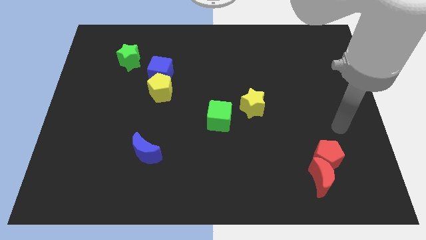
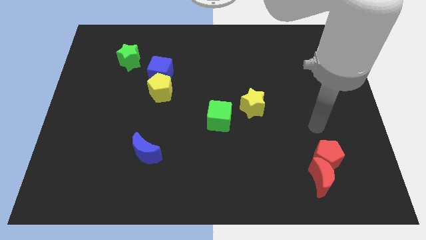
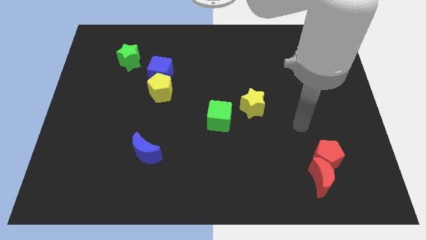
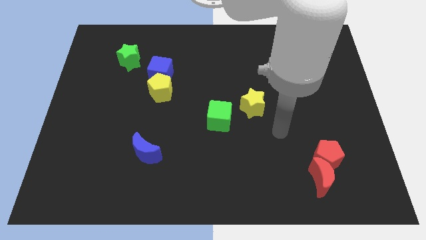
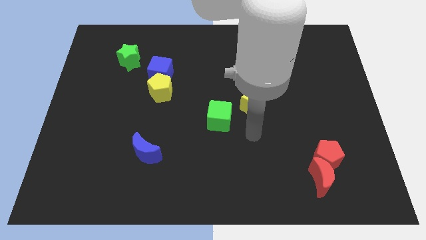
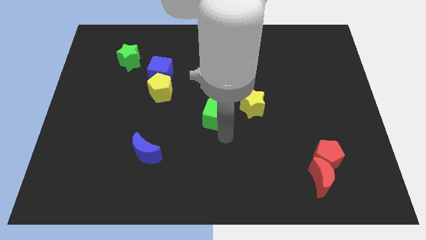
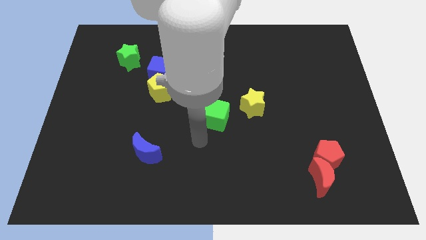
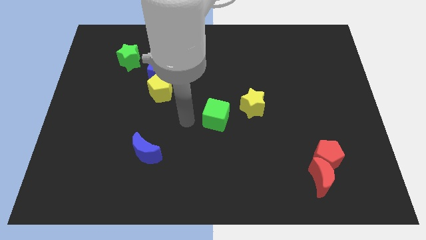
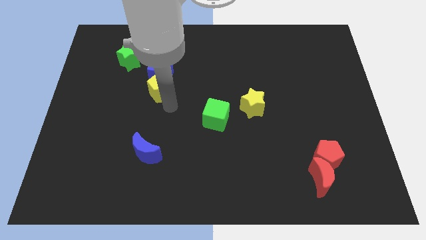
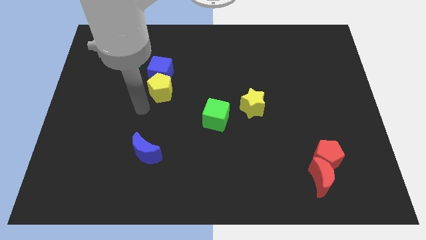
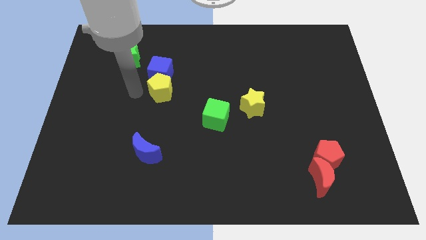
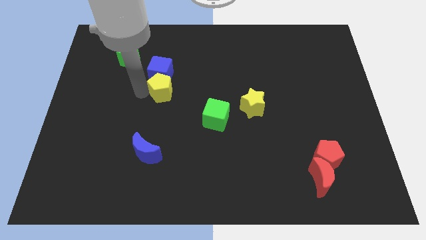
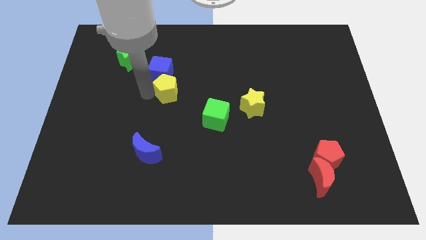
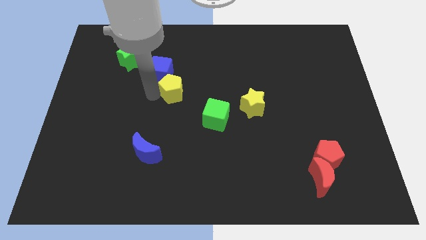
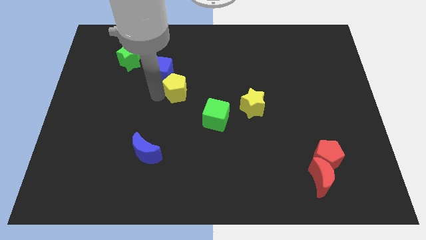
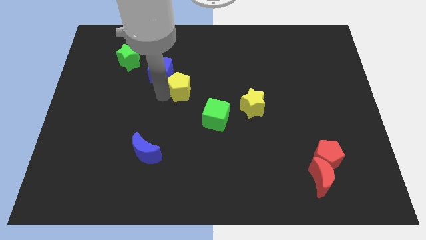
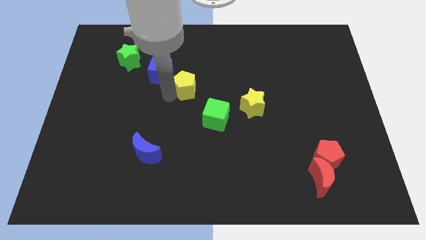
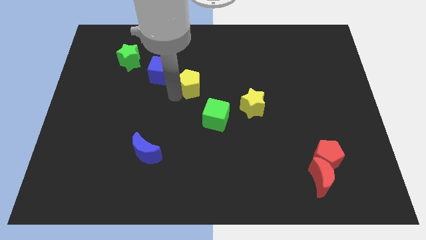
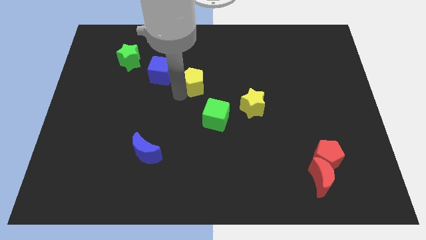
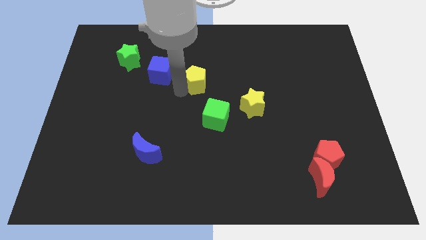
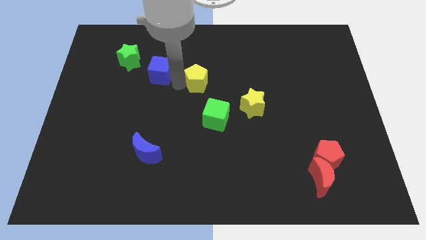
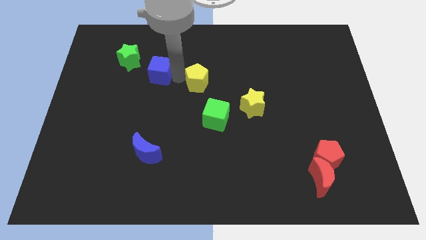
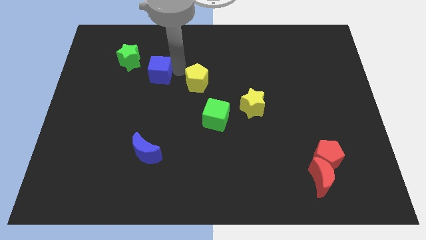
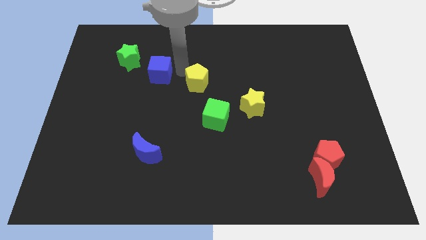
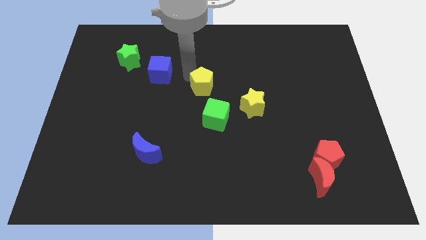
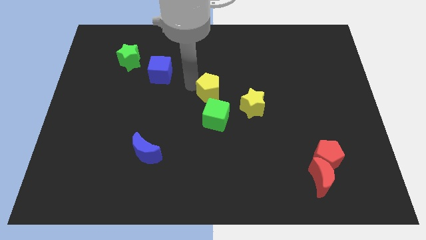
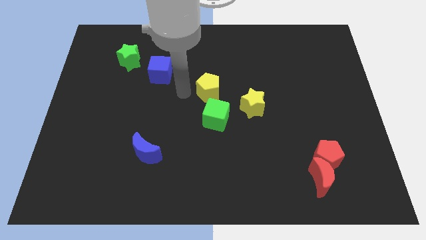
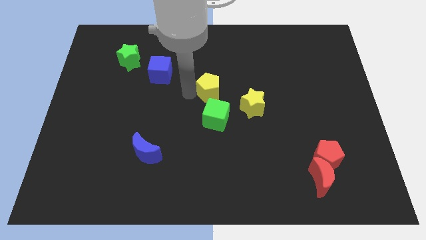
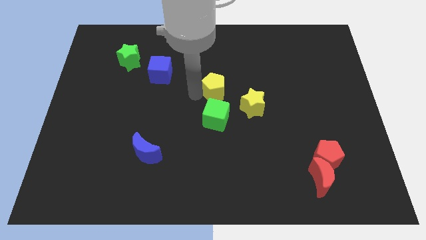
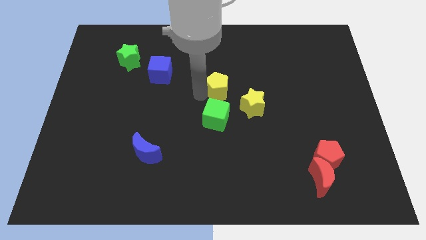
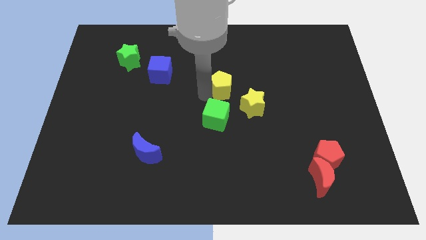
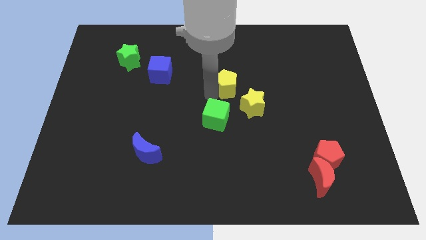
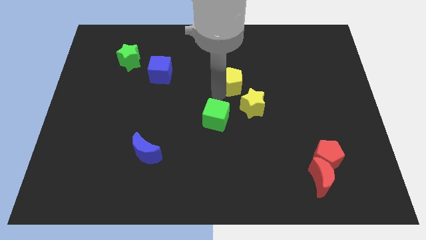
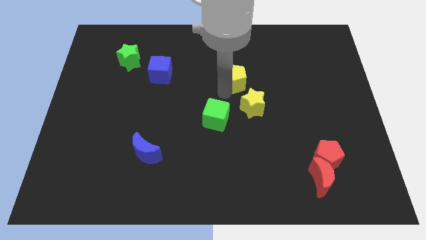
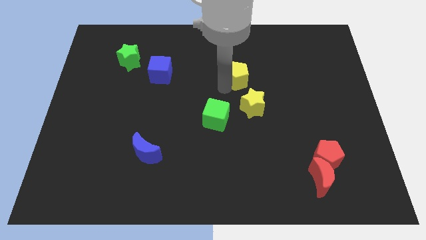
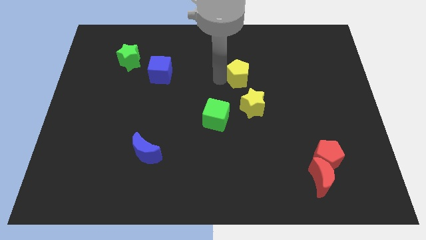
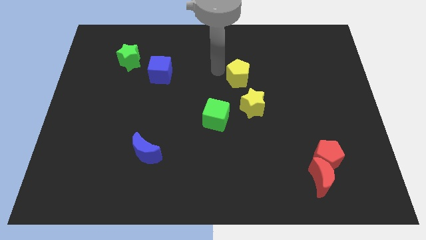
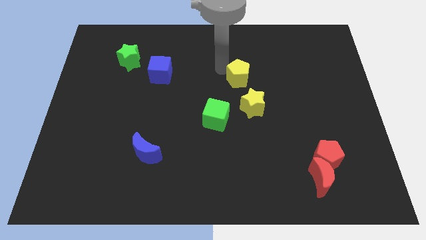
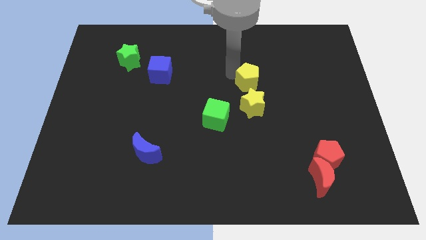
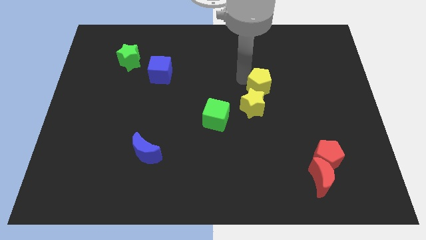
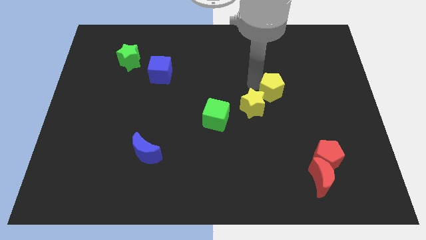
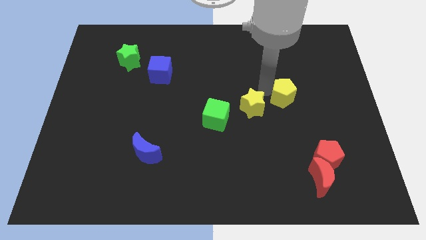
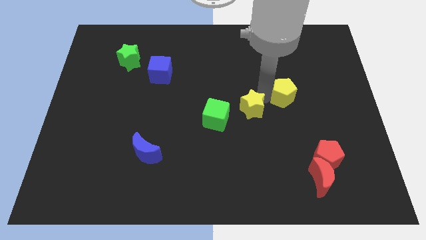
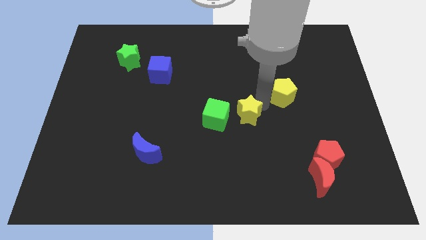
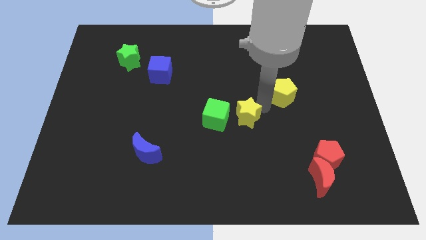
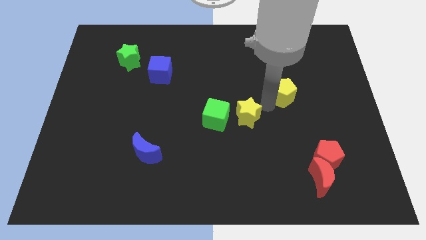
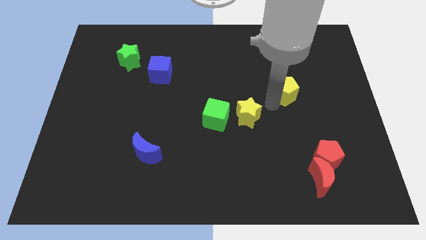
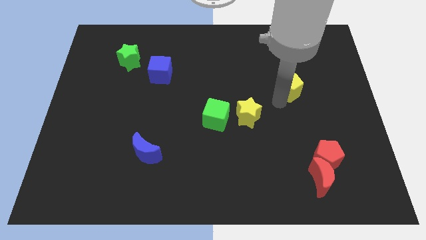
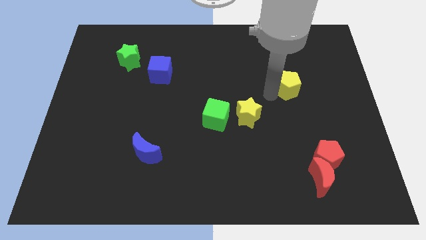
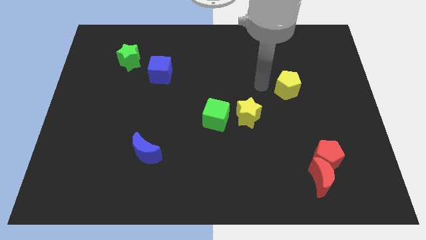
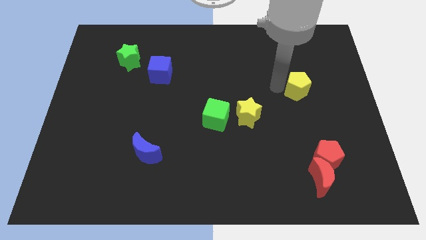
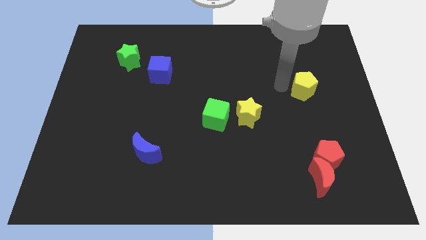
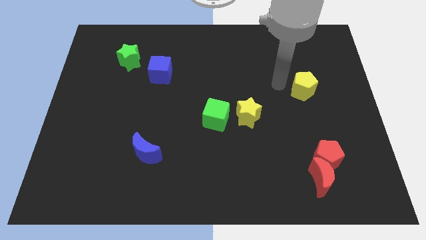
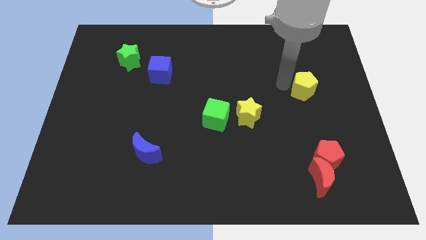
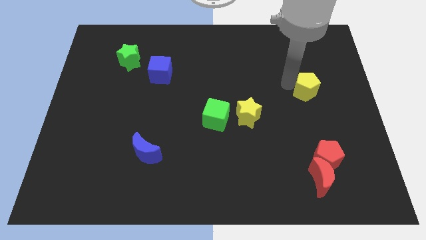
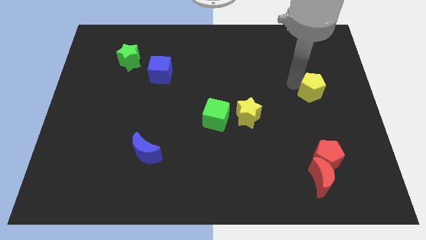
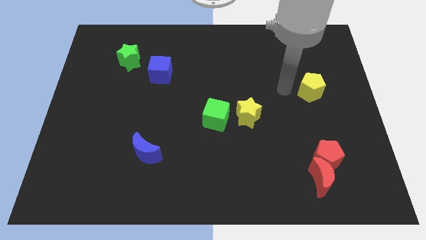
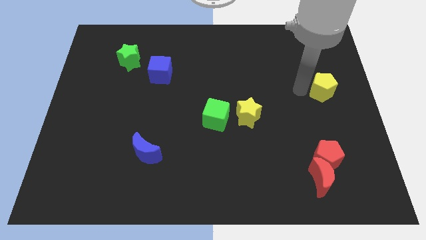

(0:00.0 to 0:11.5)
slide the yellow pentagon to the right side

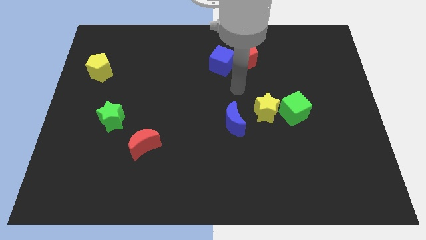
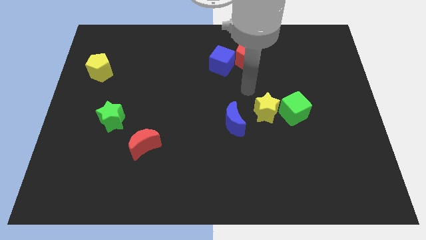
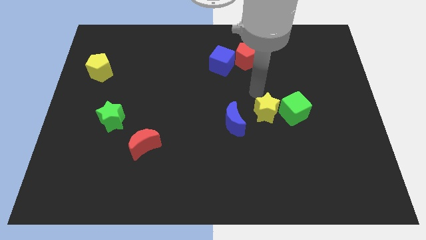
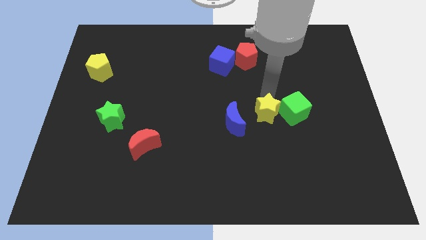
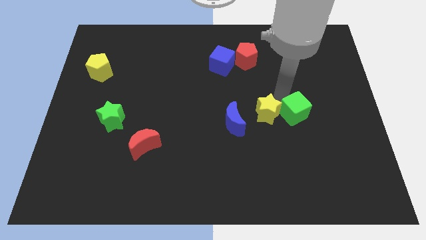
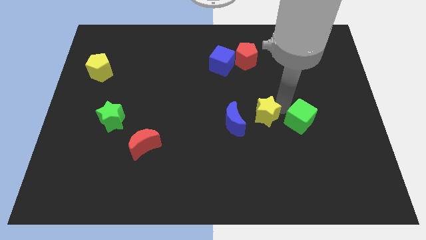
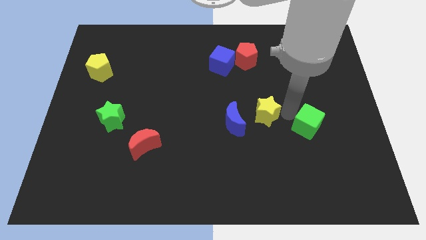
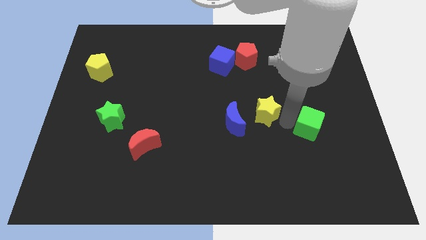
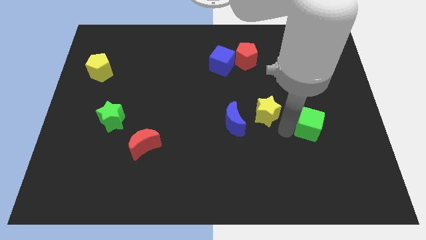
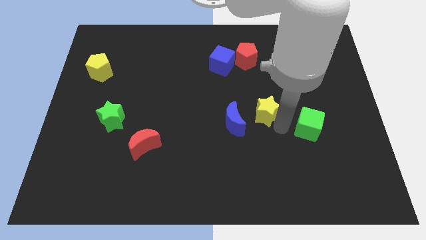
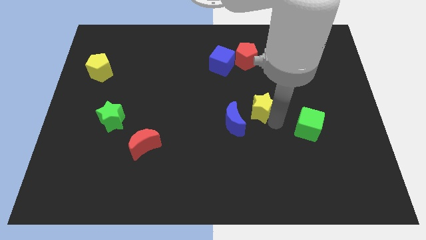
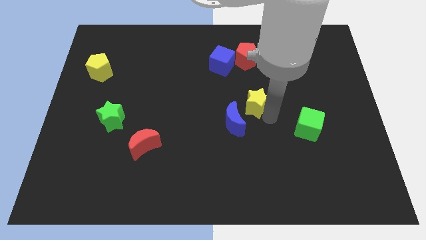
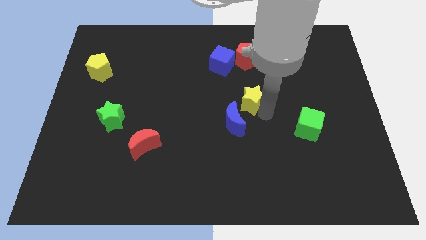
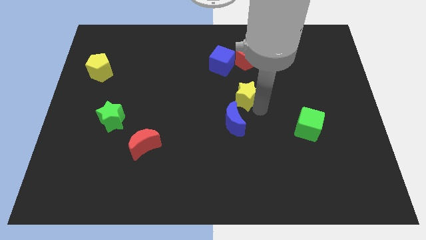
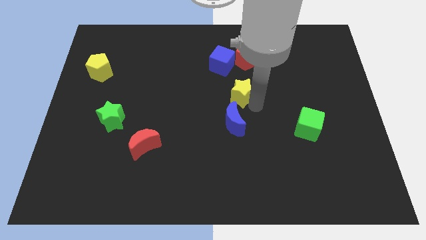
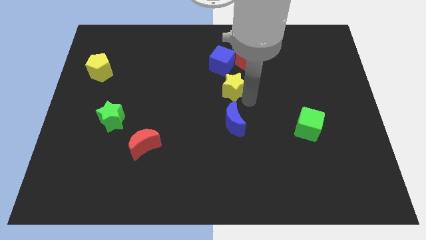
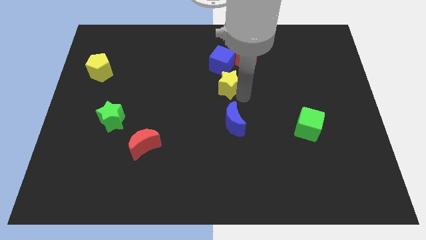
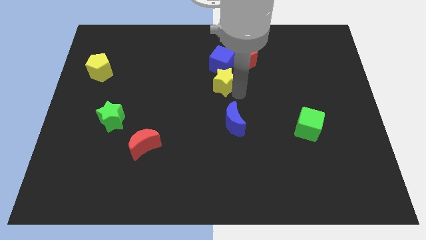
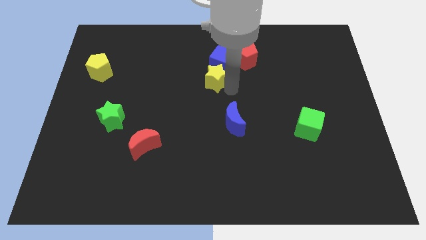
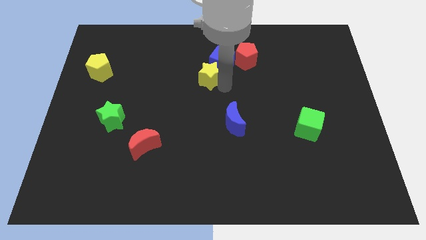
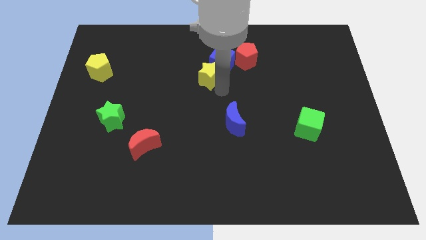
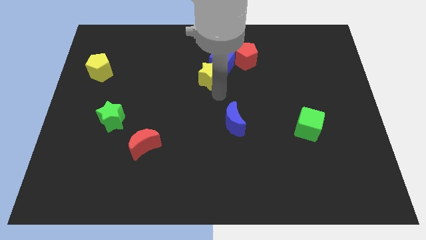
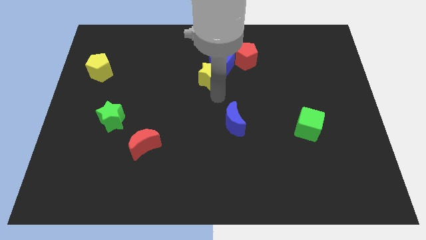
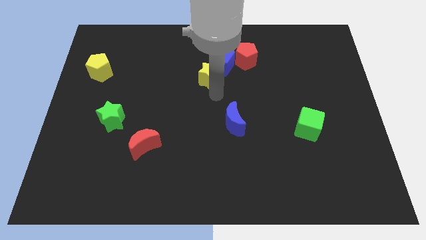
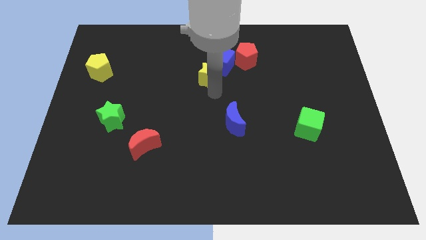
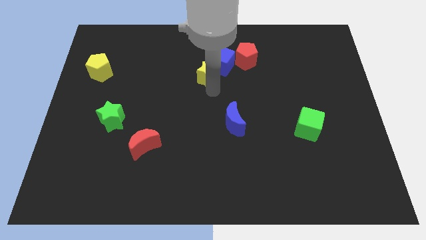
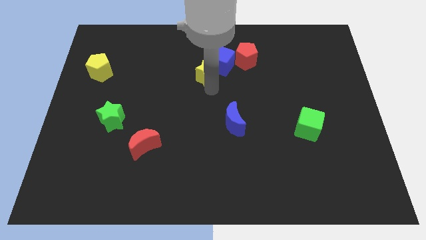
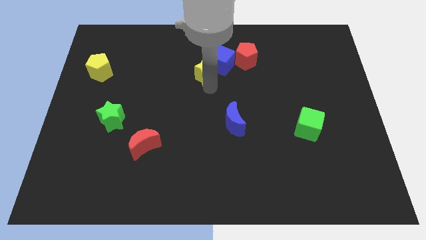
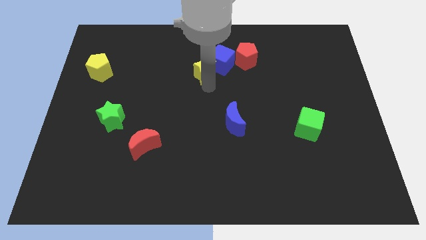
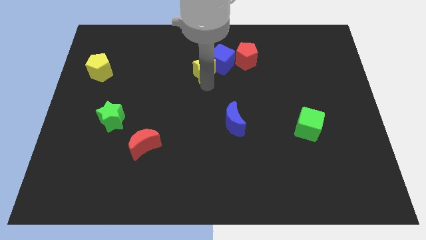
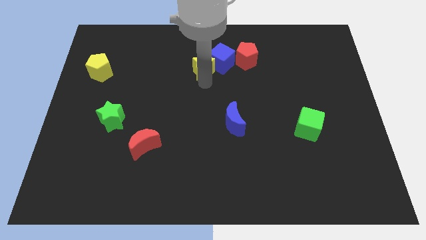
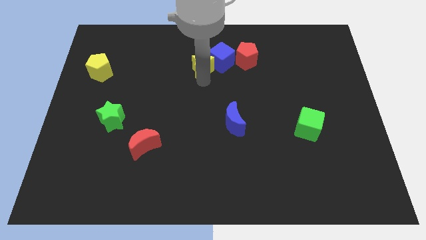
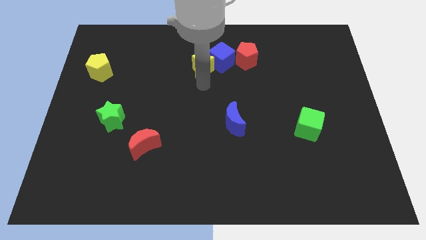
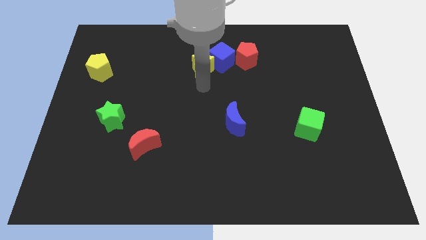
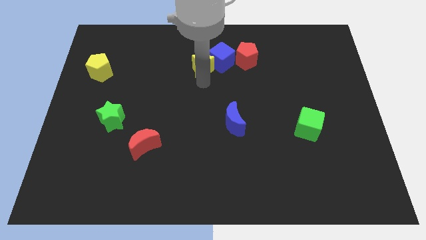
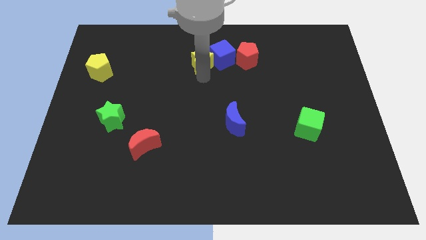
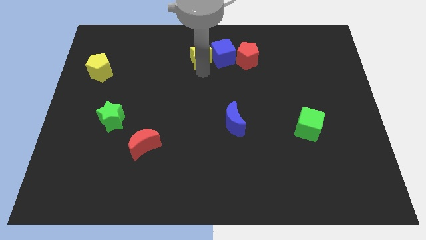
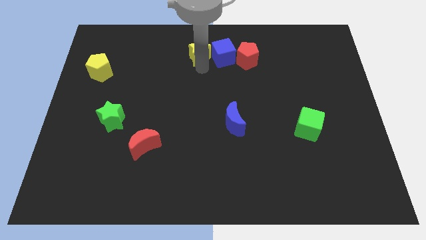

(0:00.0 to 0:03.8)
put the yellow star to the towards your base
